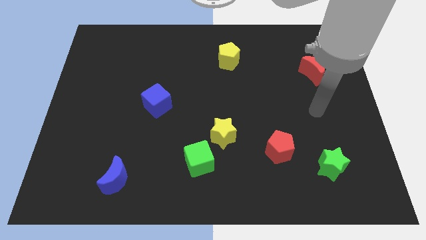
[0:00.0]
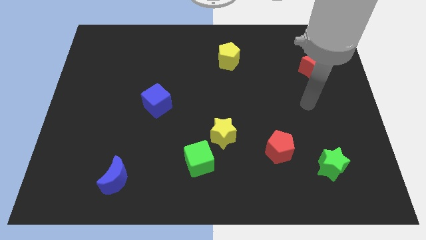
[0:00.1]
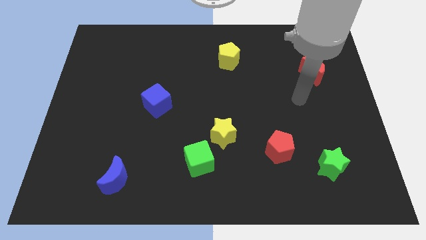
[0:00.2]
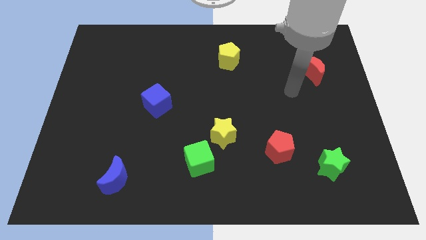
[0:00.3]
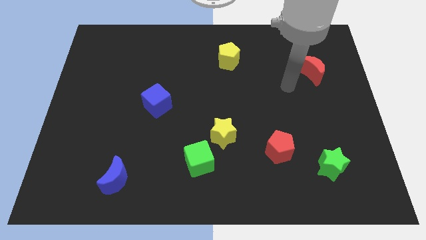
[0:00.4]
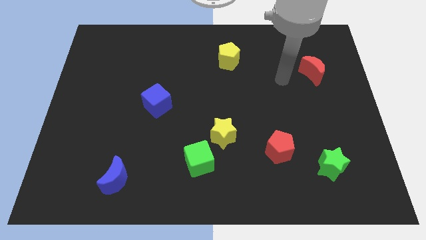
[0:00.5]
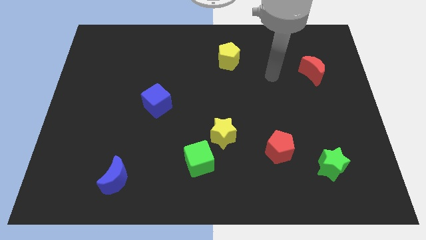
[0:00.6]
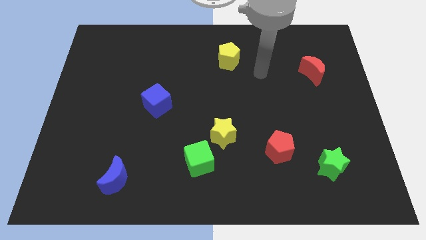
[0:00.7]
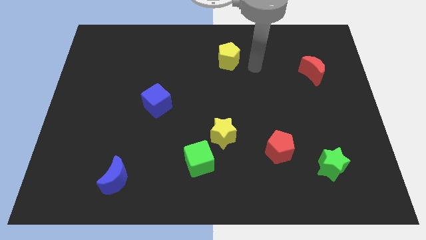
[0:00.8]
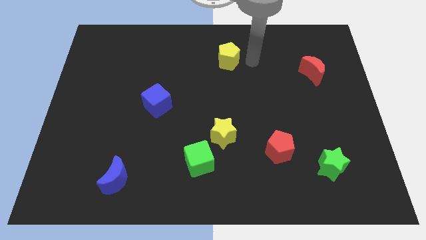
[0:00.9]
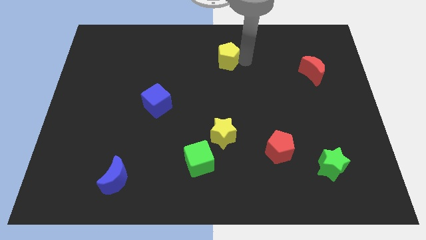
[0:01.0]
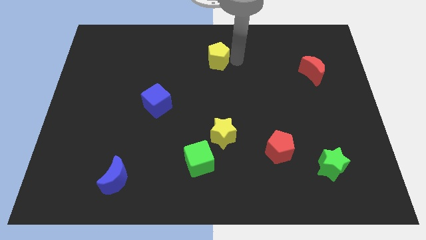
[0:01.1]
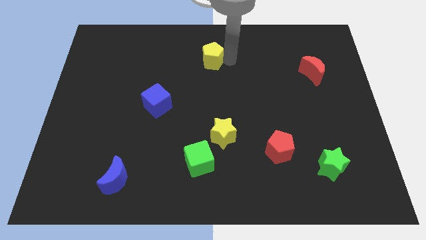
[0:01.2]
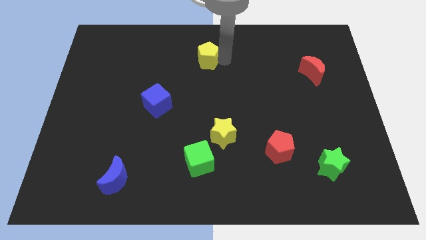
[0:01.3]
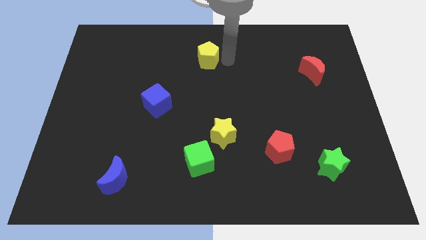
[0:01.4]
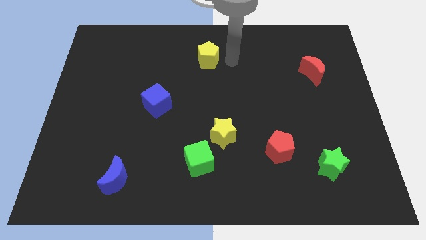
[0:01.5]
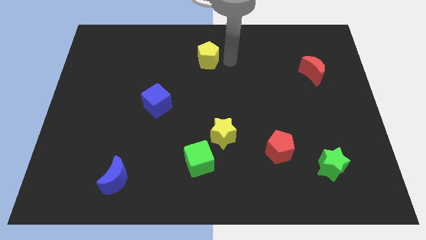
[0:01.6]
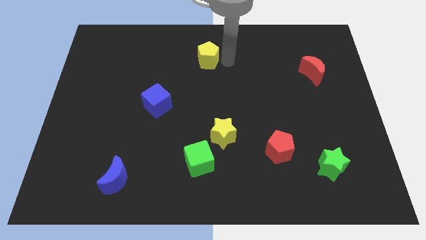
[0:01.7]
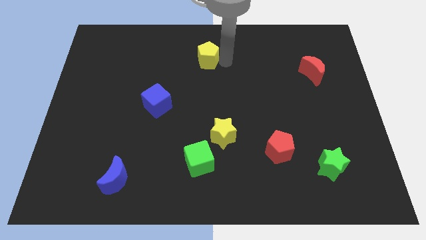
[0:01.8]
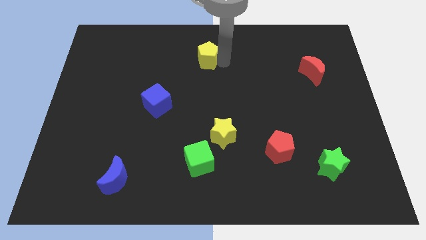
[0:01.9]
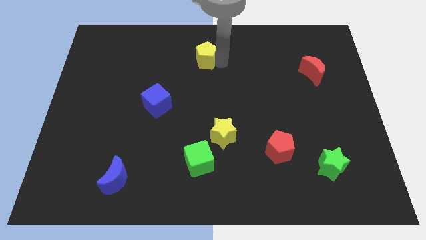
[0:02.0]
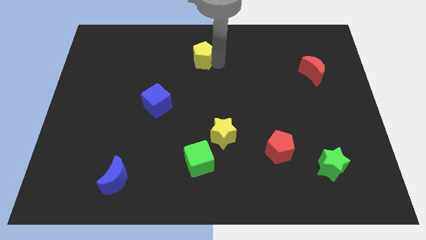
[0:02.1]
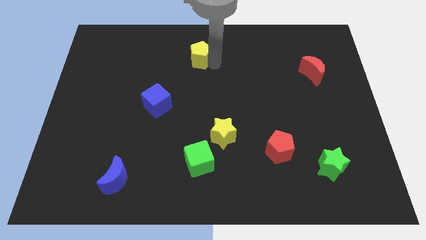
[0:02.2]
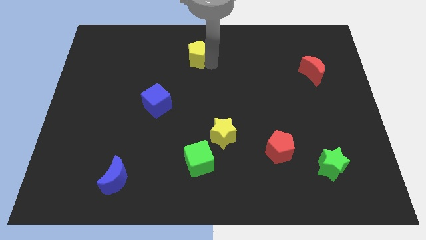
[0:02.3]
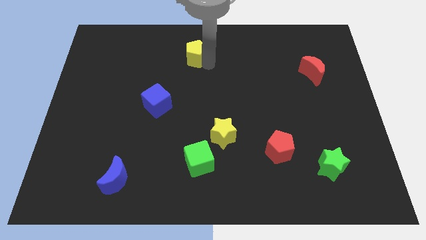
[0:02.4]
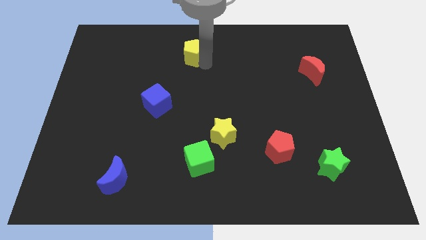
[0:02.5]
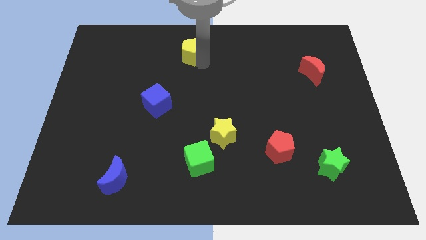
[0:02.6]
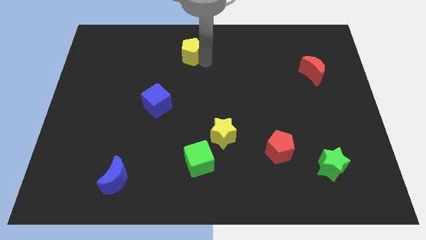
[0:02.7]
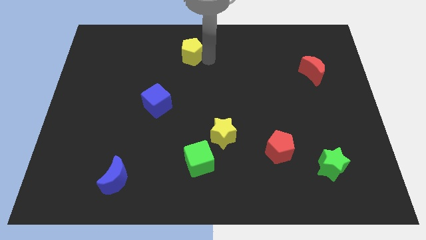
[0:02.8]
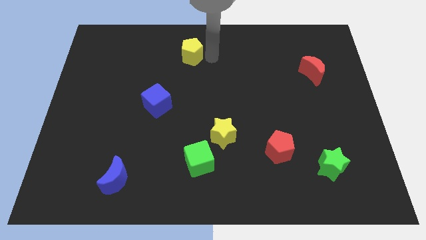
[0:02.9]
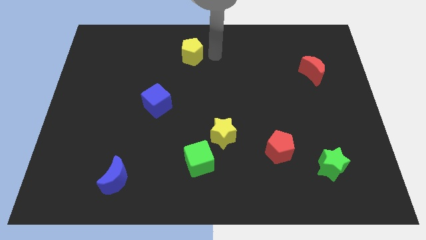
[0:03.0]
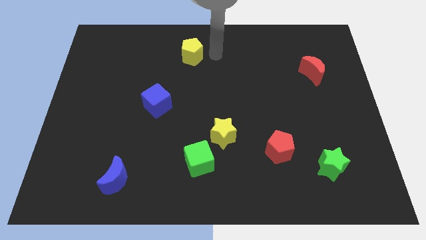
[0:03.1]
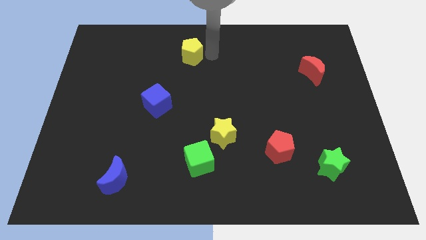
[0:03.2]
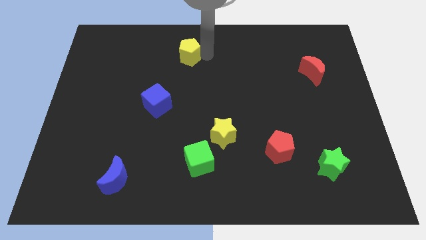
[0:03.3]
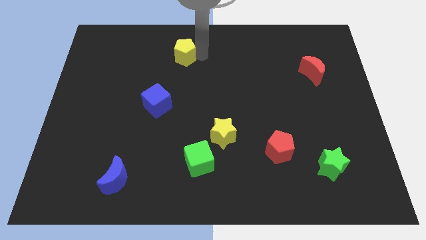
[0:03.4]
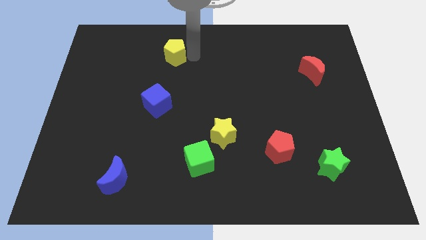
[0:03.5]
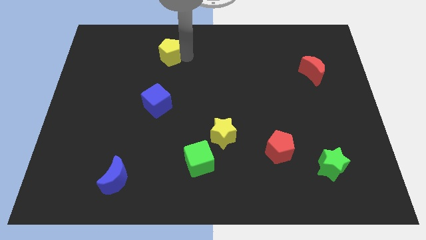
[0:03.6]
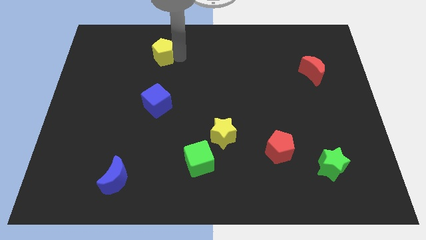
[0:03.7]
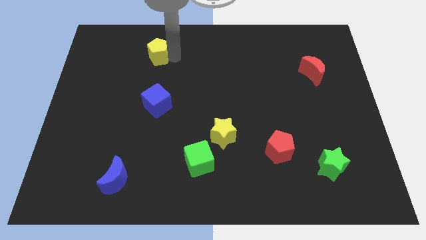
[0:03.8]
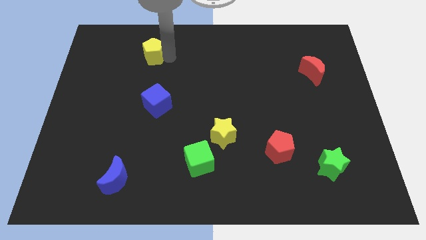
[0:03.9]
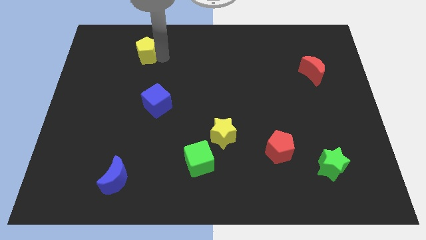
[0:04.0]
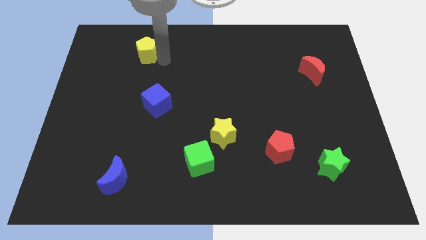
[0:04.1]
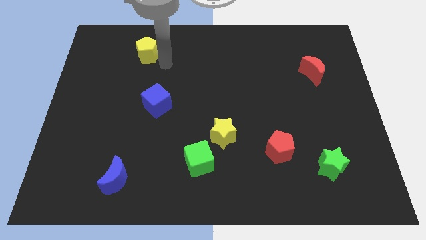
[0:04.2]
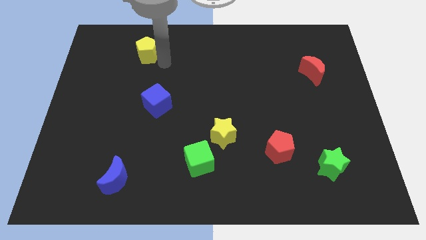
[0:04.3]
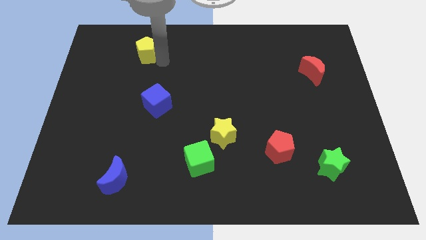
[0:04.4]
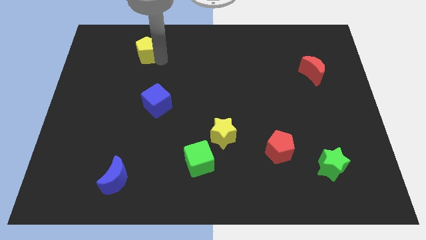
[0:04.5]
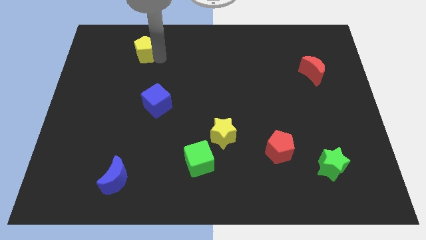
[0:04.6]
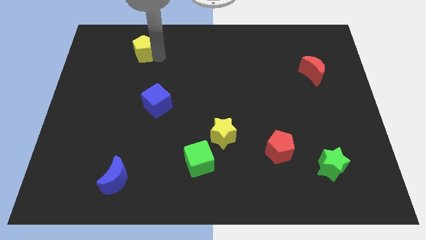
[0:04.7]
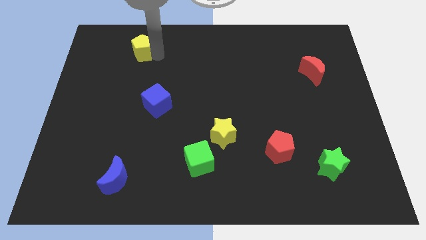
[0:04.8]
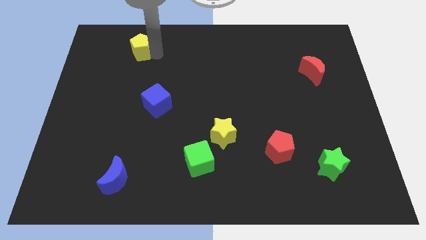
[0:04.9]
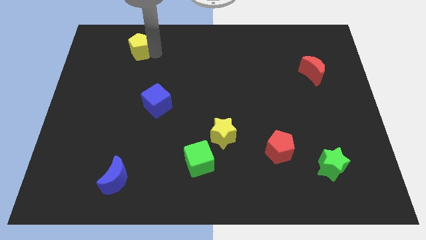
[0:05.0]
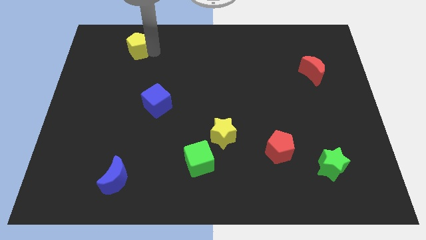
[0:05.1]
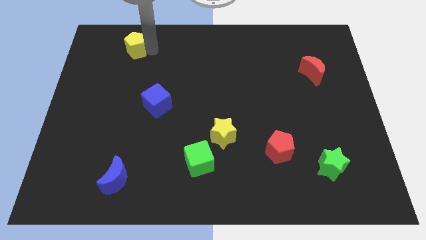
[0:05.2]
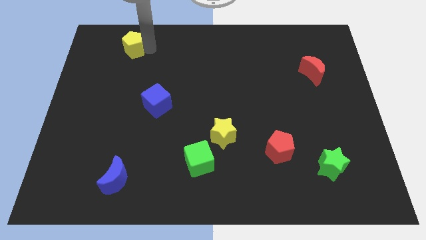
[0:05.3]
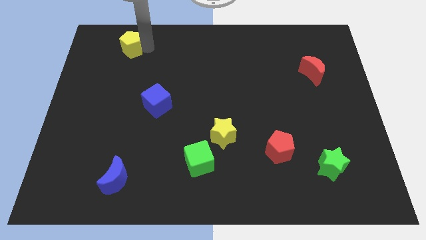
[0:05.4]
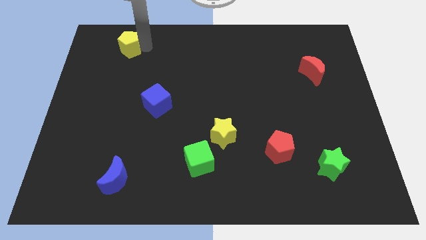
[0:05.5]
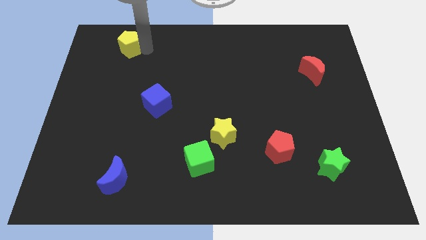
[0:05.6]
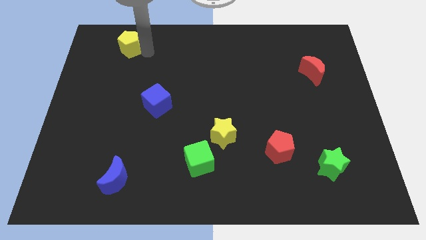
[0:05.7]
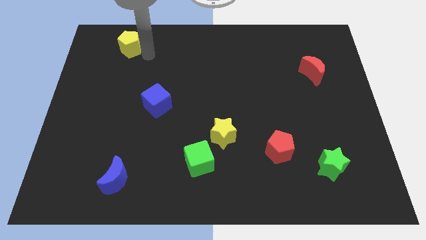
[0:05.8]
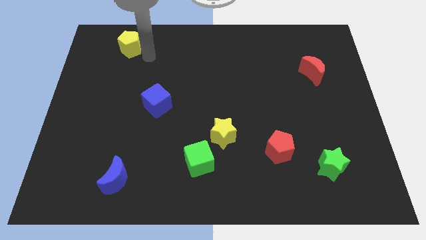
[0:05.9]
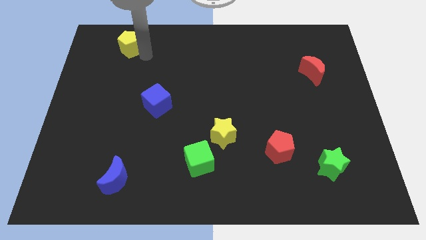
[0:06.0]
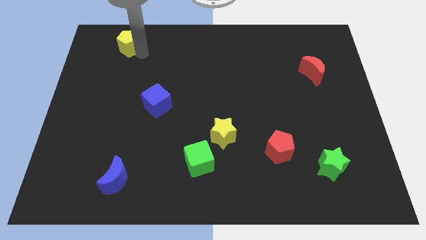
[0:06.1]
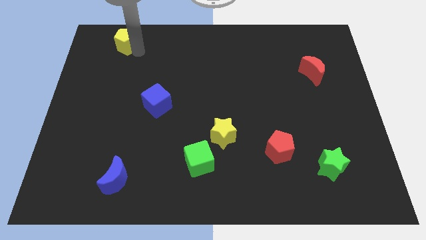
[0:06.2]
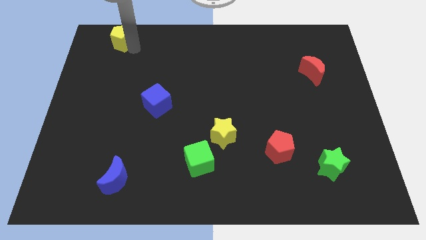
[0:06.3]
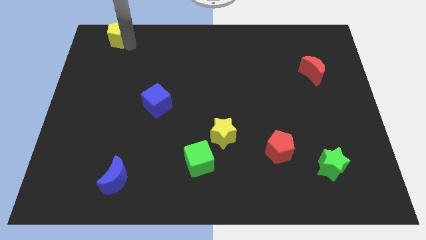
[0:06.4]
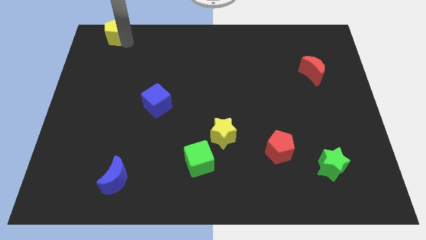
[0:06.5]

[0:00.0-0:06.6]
move the yellow pentagon to the upper left corner
